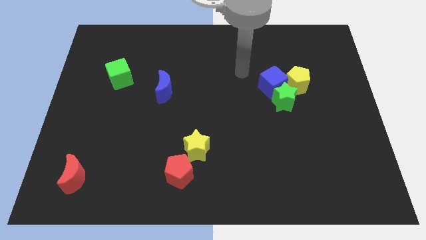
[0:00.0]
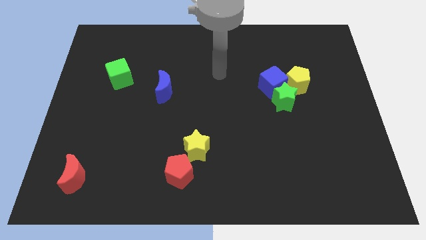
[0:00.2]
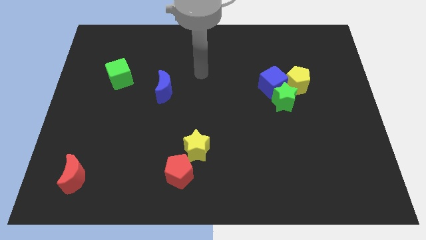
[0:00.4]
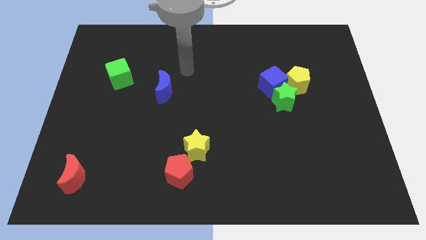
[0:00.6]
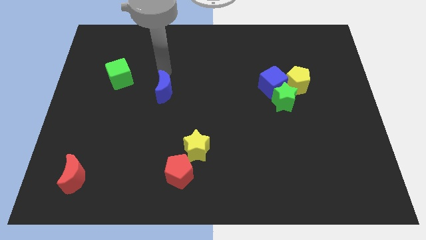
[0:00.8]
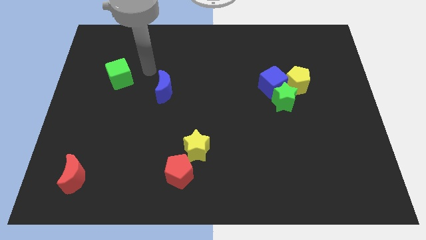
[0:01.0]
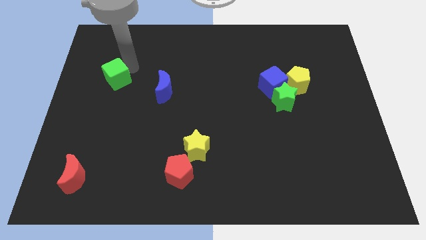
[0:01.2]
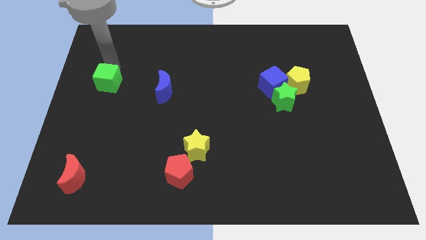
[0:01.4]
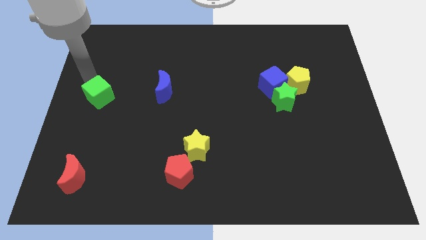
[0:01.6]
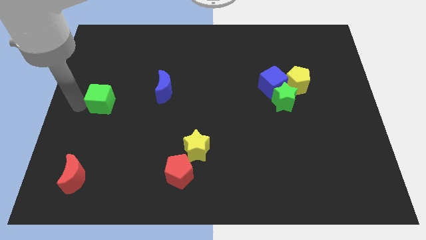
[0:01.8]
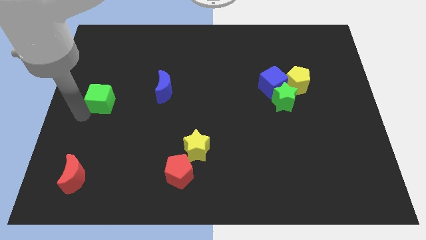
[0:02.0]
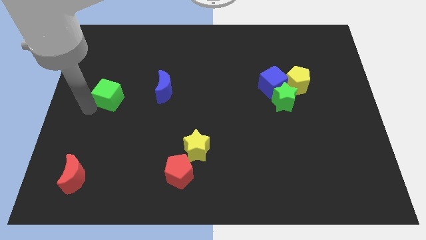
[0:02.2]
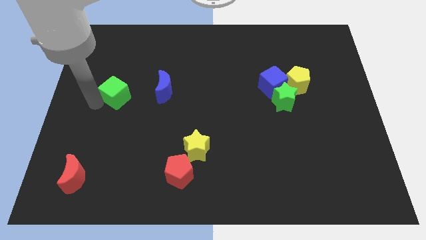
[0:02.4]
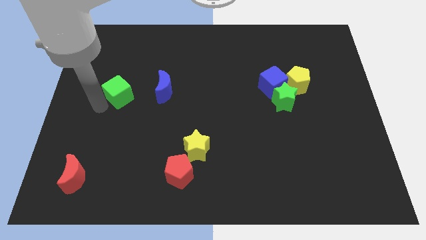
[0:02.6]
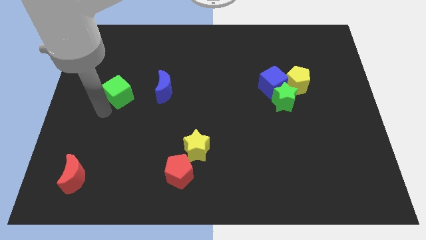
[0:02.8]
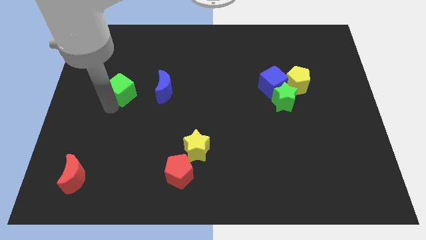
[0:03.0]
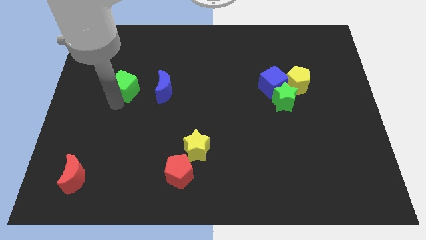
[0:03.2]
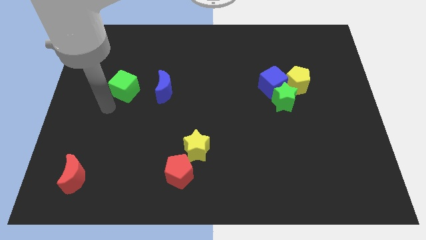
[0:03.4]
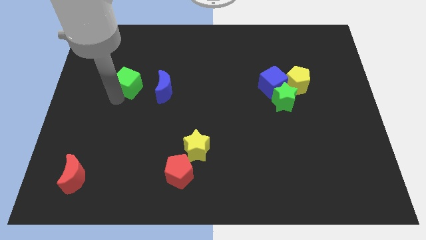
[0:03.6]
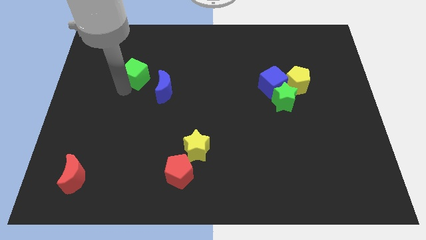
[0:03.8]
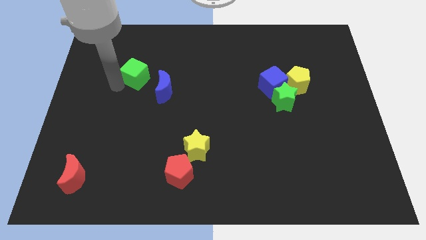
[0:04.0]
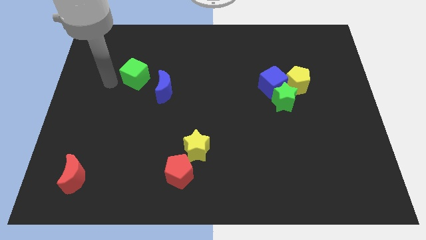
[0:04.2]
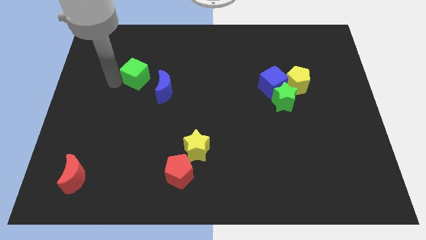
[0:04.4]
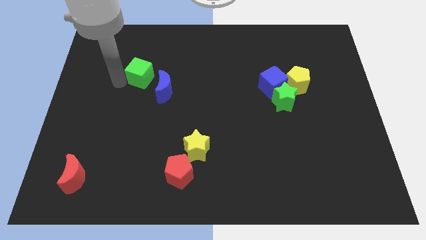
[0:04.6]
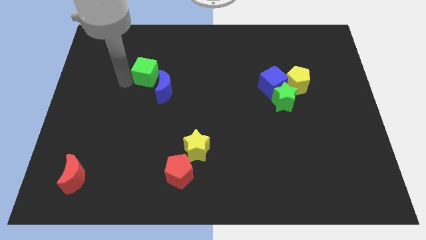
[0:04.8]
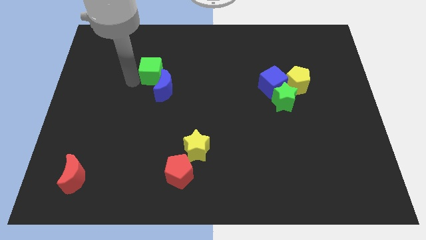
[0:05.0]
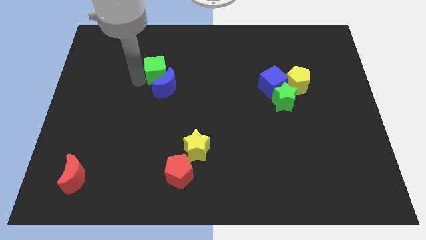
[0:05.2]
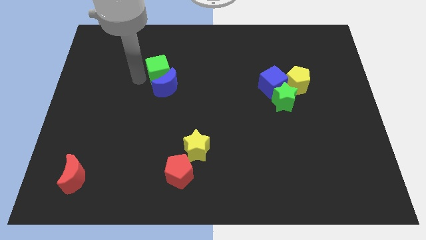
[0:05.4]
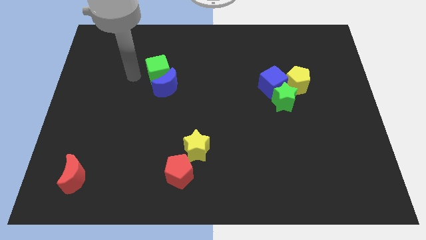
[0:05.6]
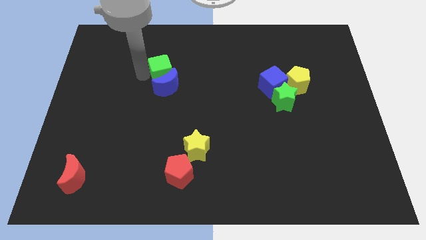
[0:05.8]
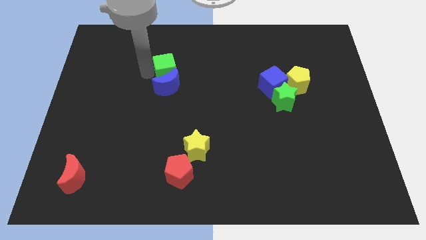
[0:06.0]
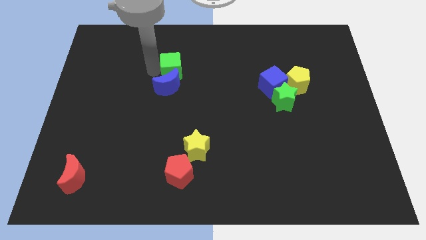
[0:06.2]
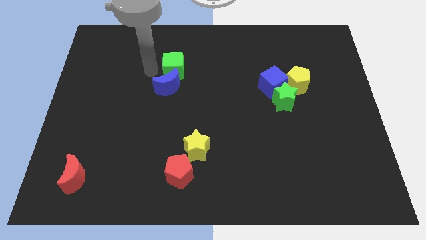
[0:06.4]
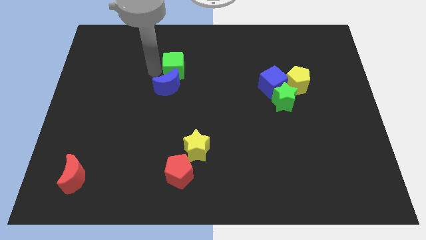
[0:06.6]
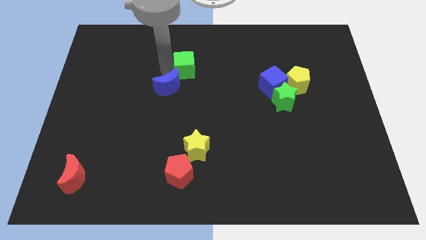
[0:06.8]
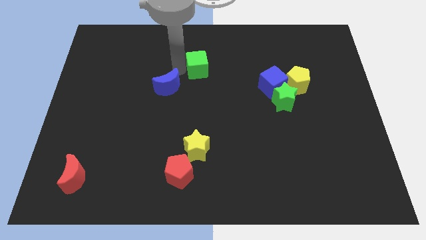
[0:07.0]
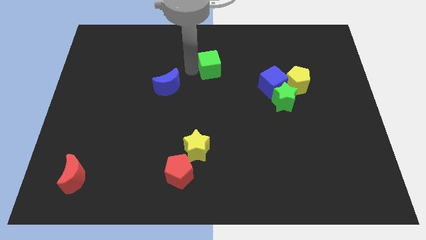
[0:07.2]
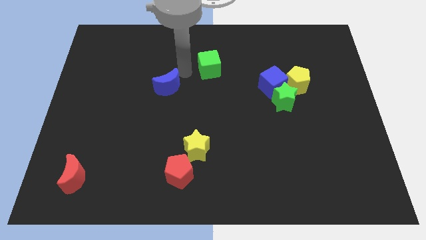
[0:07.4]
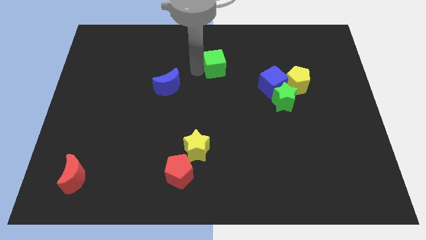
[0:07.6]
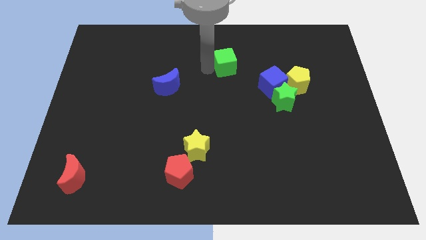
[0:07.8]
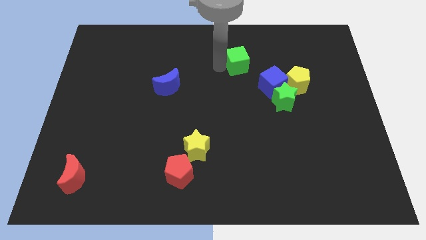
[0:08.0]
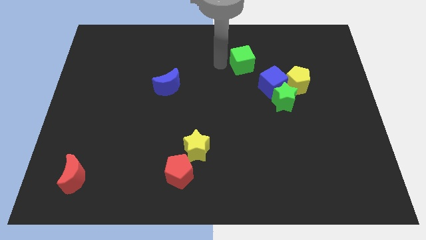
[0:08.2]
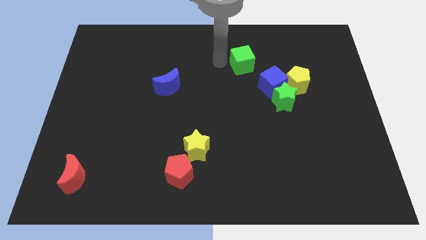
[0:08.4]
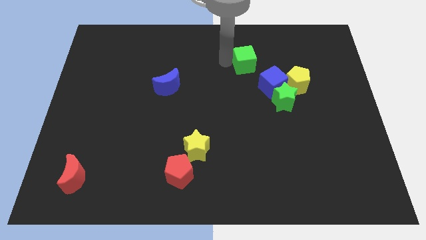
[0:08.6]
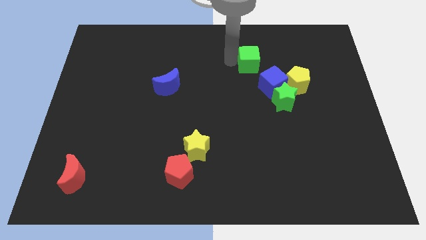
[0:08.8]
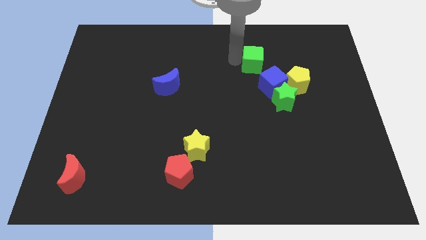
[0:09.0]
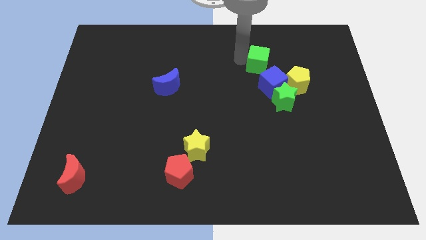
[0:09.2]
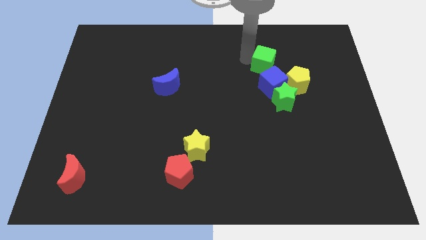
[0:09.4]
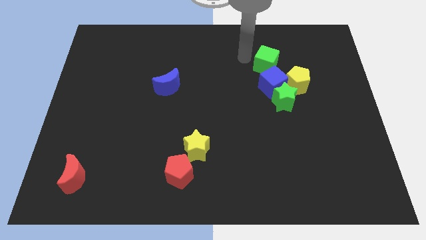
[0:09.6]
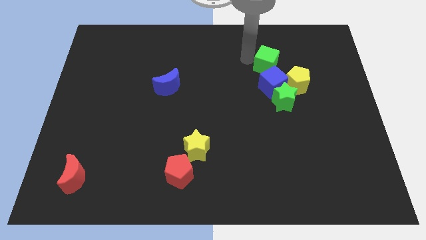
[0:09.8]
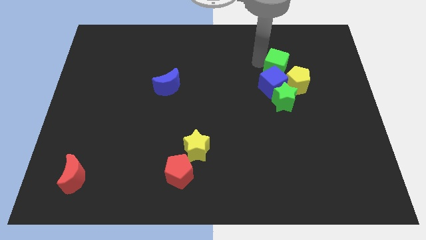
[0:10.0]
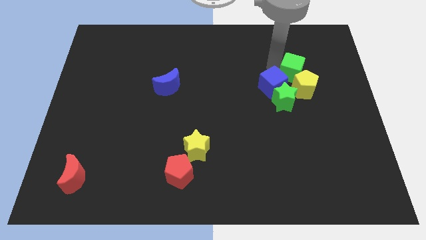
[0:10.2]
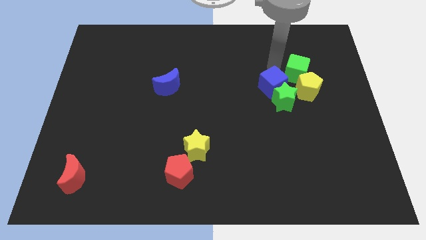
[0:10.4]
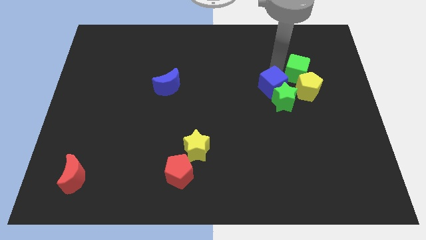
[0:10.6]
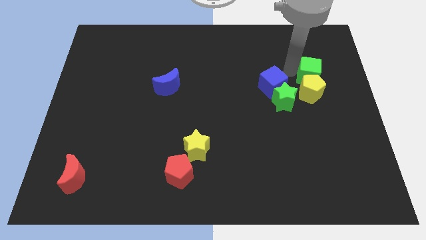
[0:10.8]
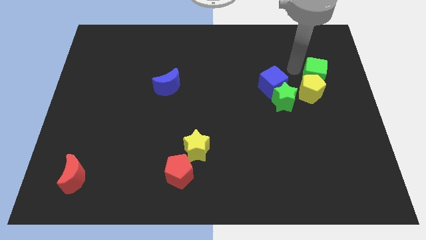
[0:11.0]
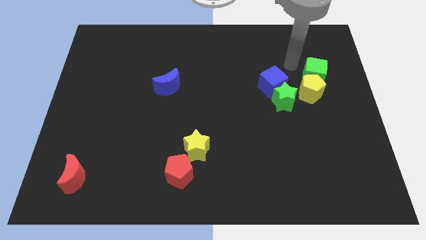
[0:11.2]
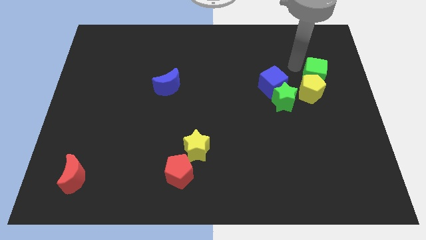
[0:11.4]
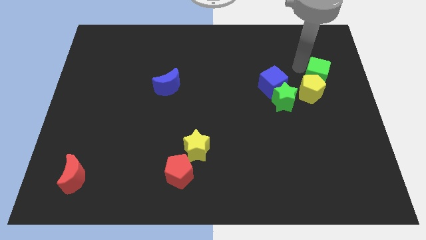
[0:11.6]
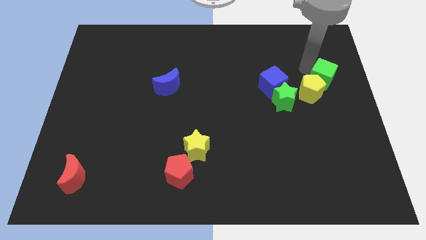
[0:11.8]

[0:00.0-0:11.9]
put the green cube to the right side

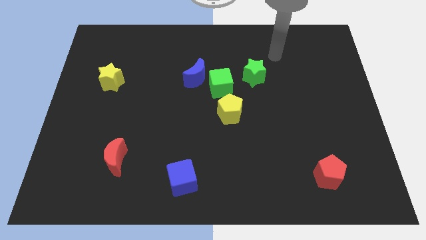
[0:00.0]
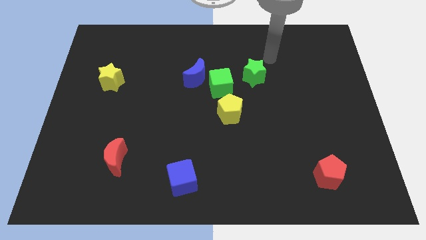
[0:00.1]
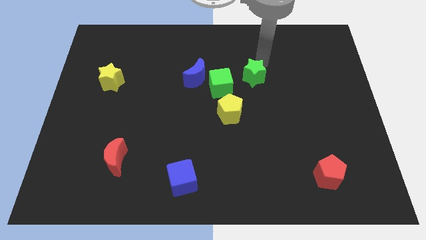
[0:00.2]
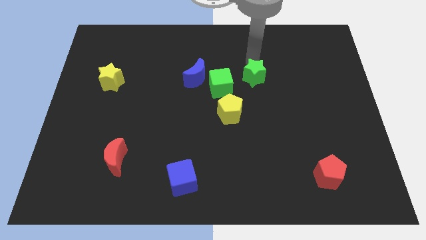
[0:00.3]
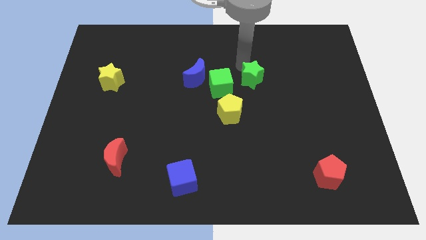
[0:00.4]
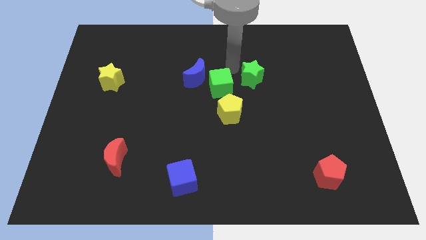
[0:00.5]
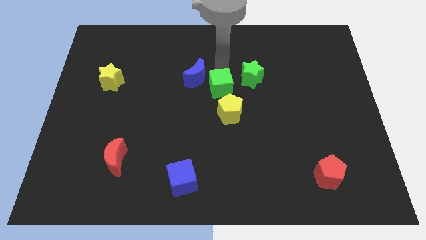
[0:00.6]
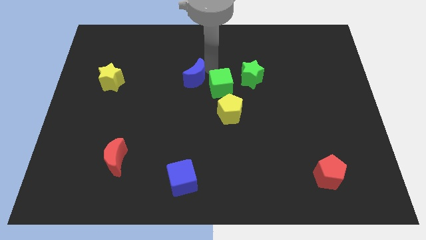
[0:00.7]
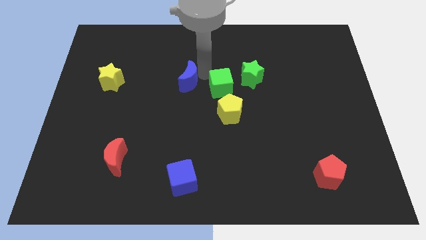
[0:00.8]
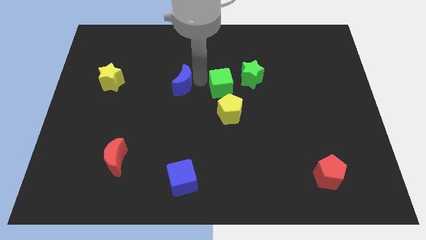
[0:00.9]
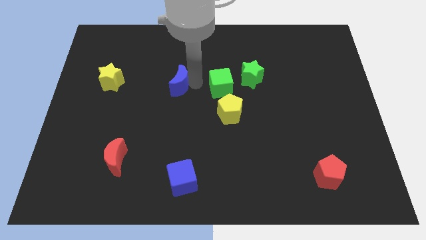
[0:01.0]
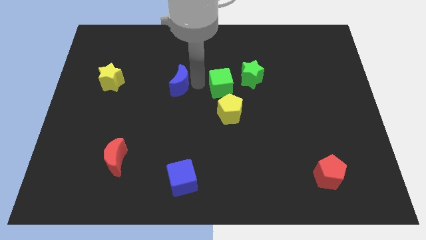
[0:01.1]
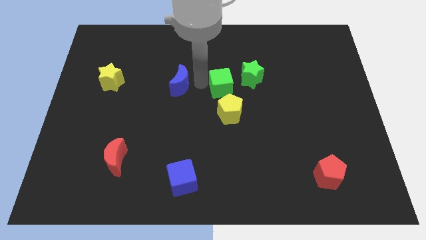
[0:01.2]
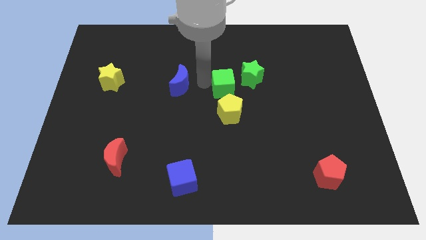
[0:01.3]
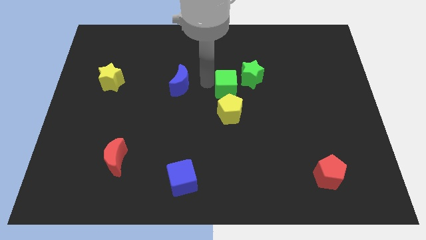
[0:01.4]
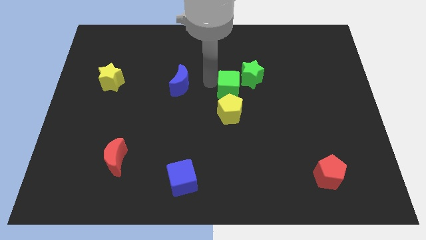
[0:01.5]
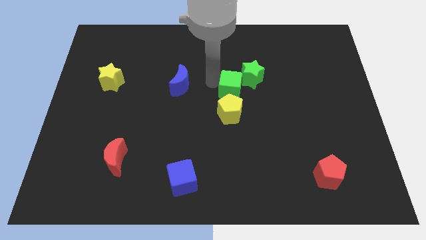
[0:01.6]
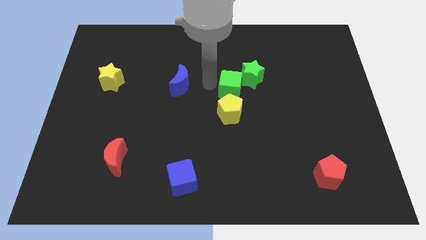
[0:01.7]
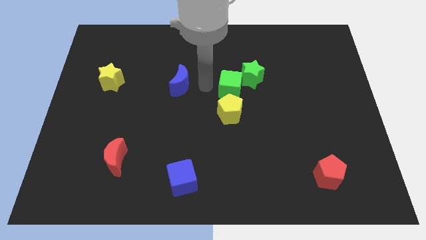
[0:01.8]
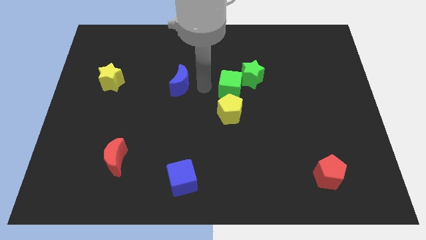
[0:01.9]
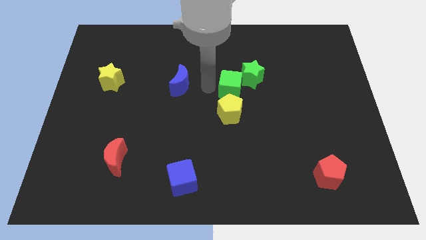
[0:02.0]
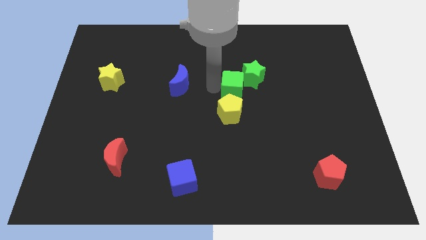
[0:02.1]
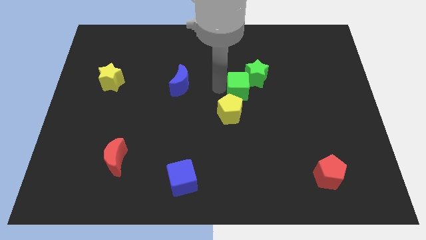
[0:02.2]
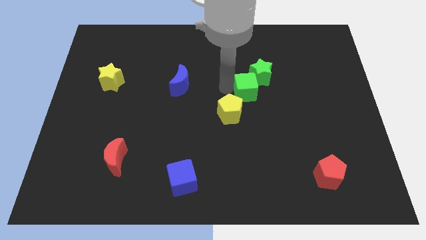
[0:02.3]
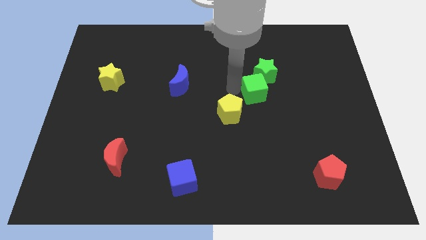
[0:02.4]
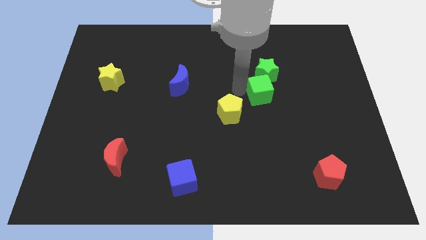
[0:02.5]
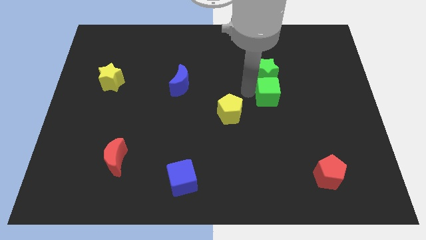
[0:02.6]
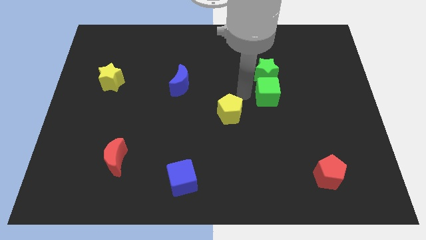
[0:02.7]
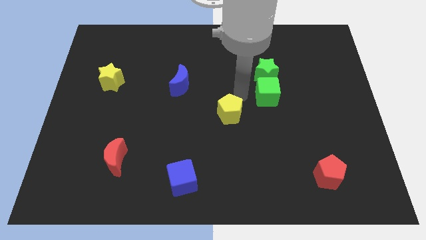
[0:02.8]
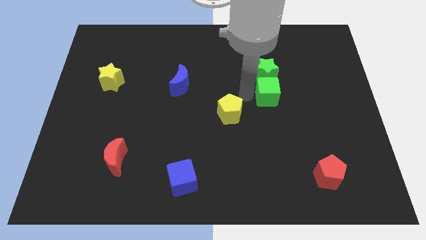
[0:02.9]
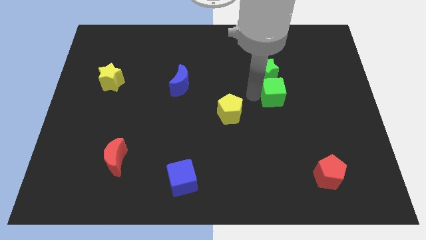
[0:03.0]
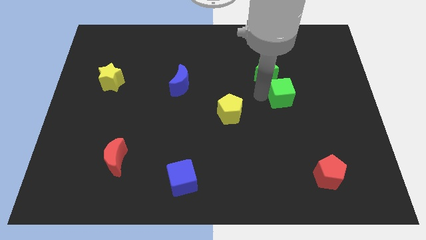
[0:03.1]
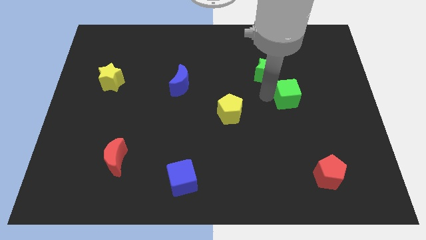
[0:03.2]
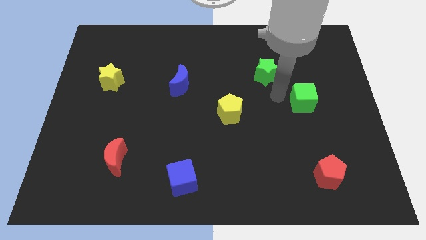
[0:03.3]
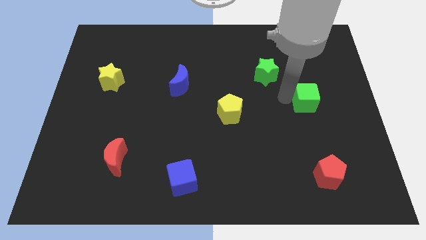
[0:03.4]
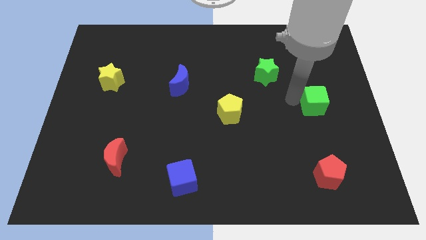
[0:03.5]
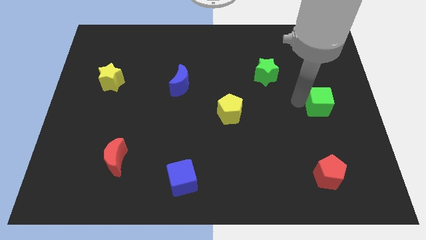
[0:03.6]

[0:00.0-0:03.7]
push the green cube to the right side of the board
